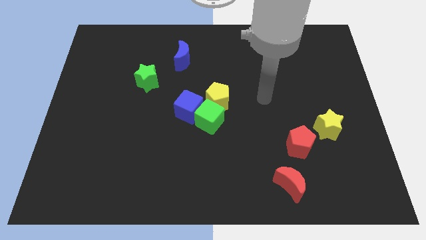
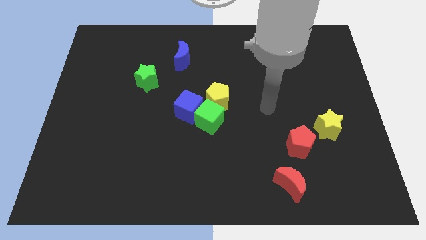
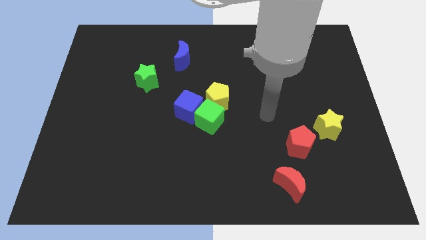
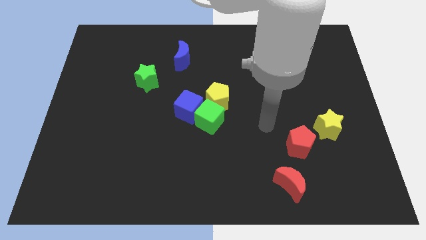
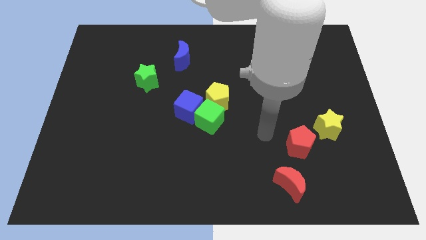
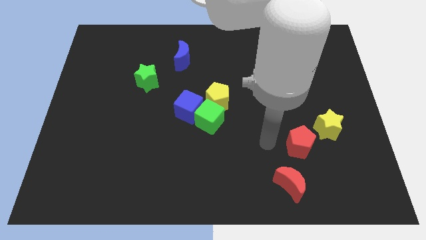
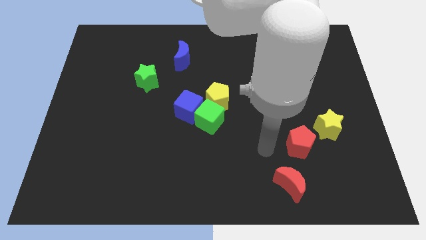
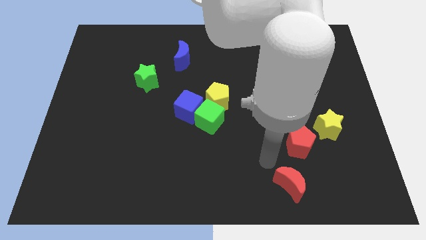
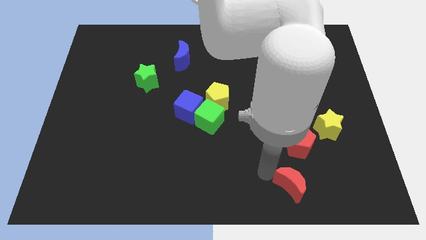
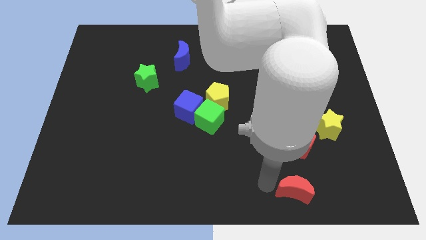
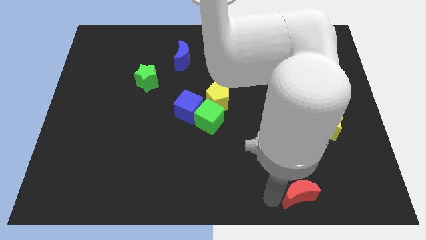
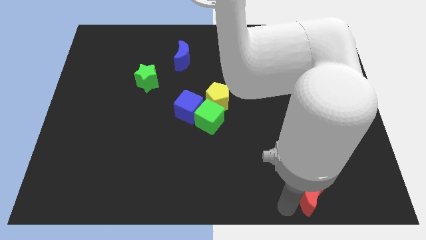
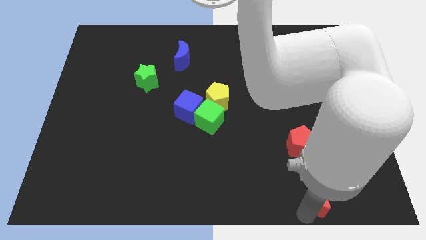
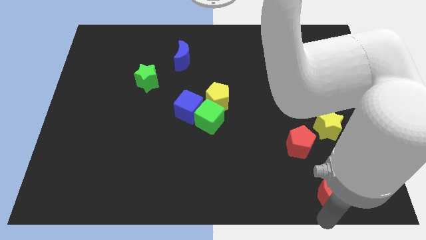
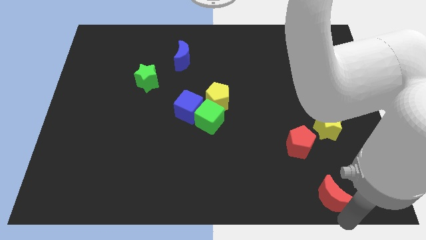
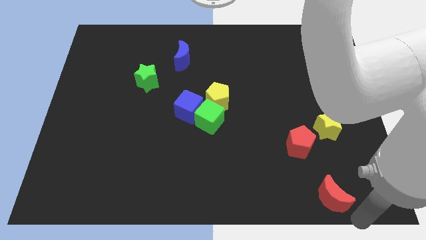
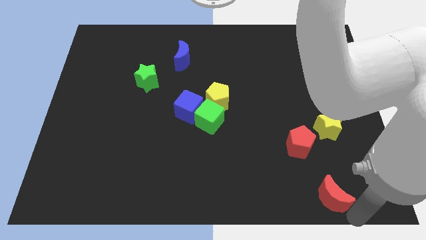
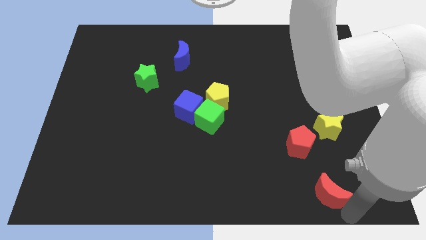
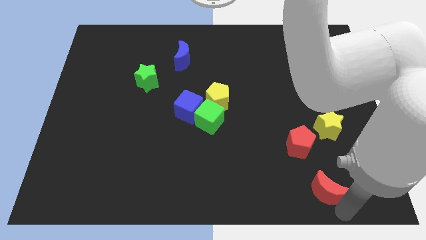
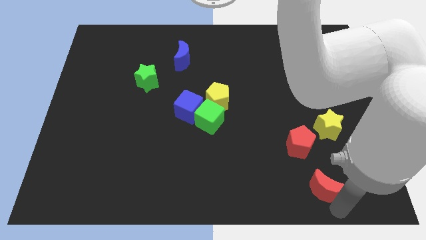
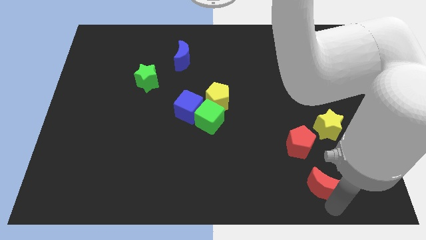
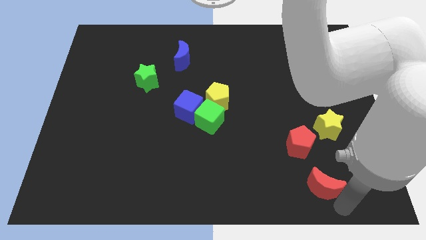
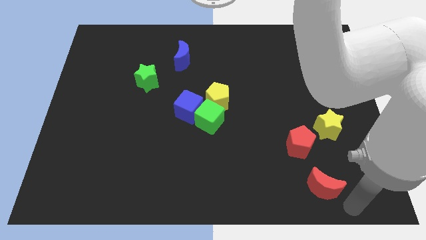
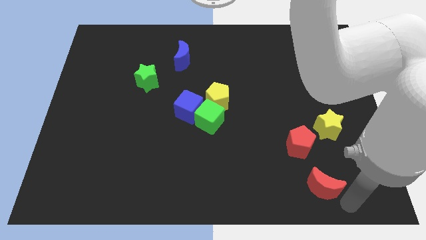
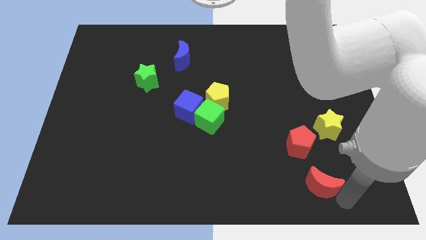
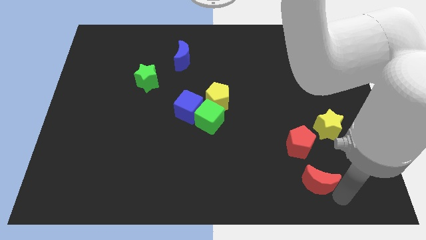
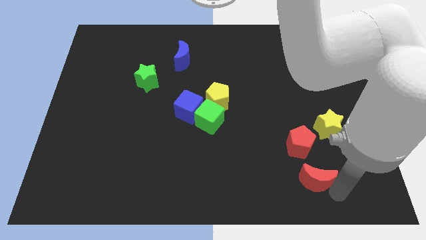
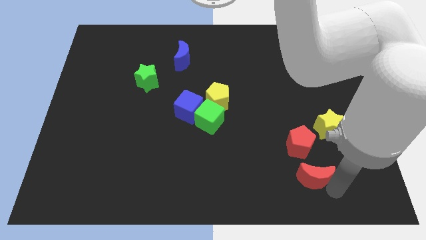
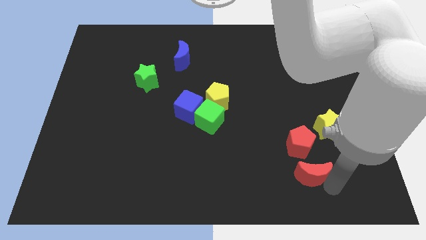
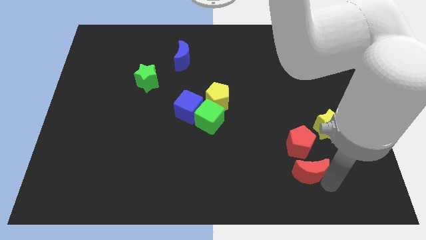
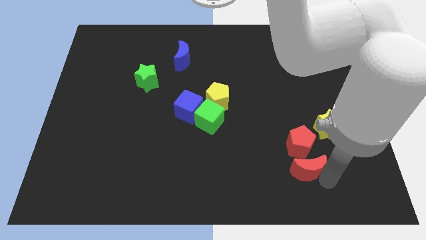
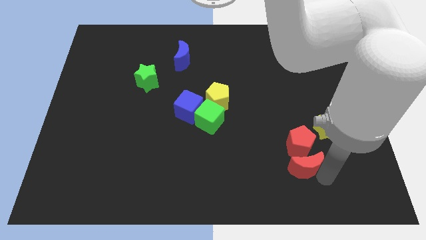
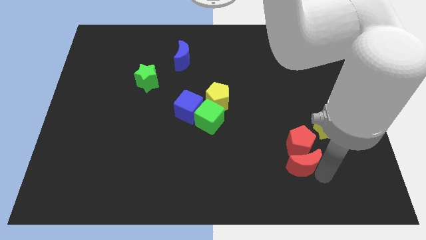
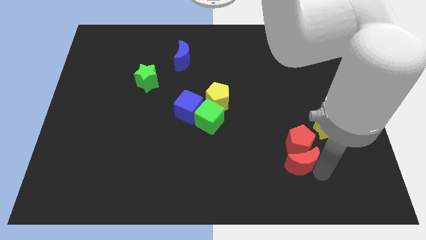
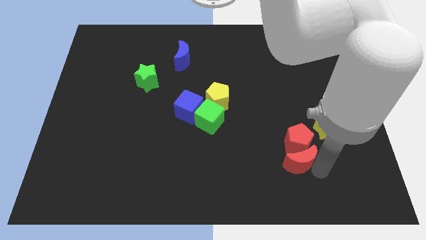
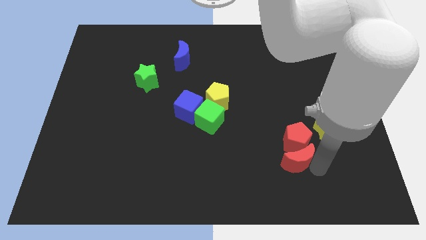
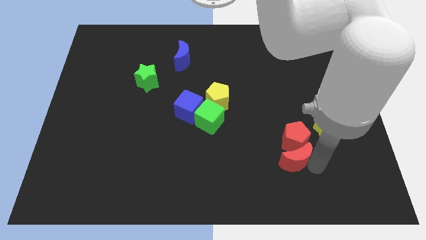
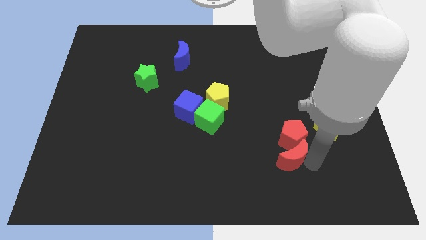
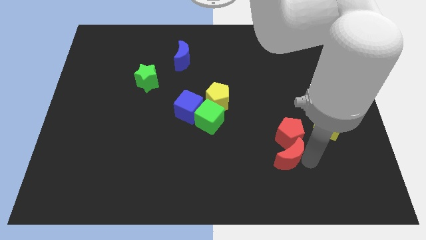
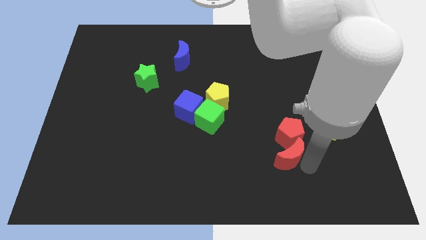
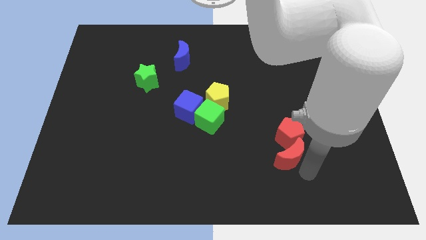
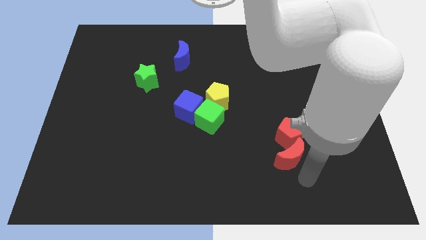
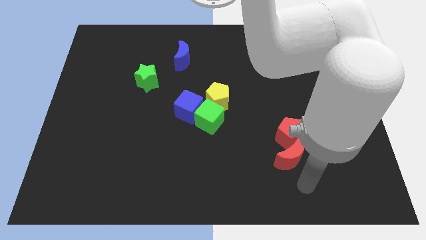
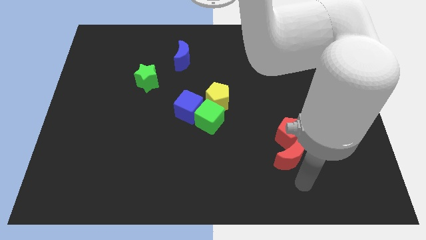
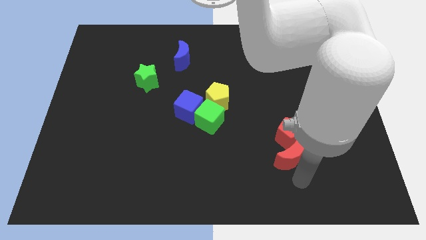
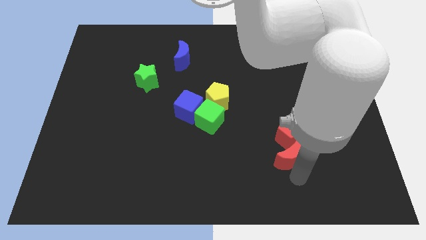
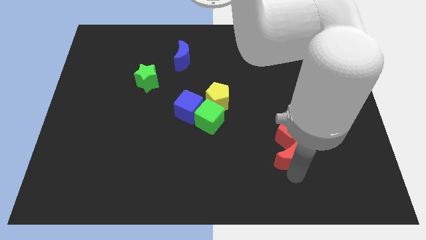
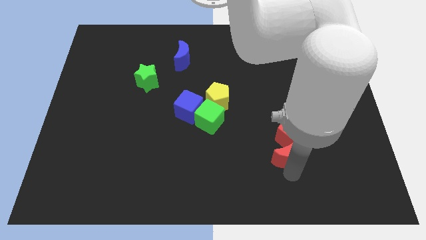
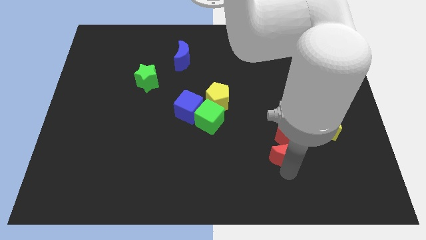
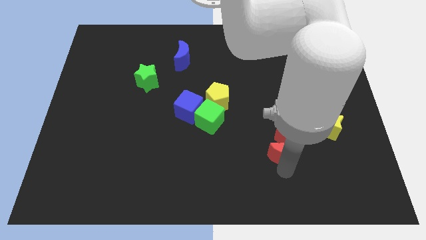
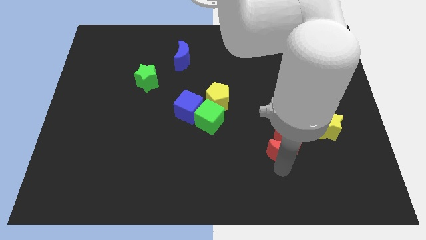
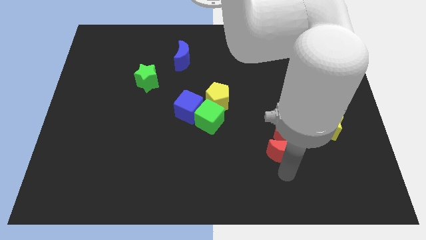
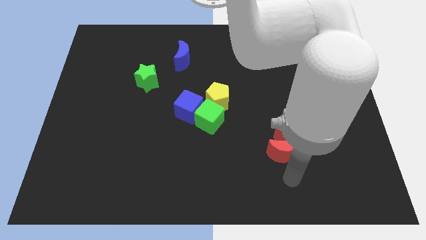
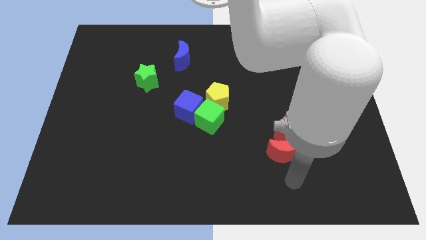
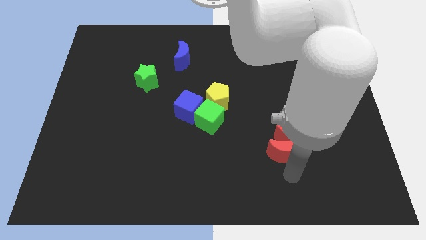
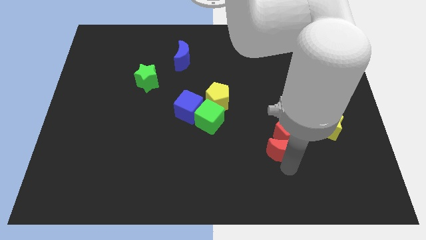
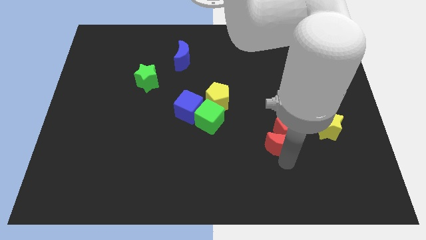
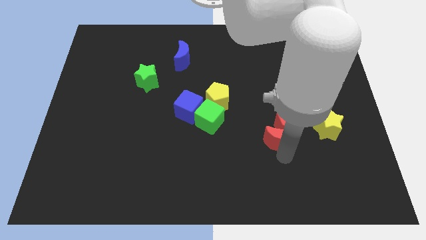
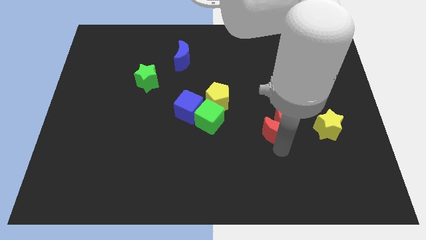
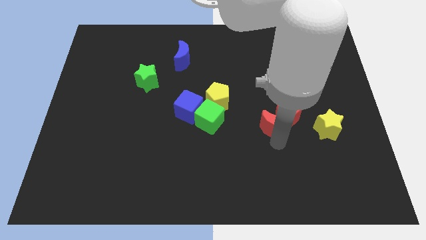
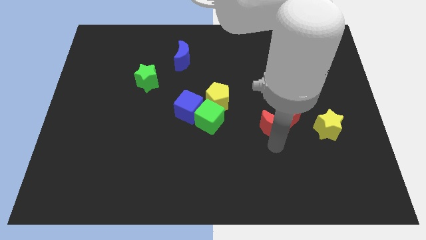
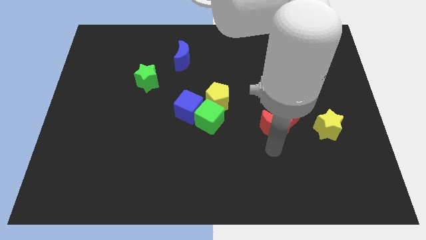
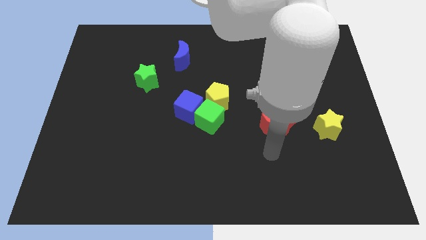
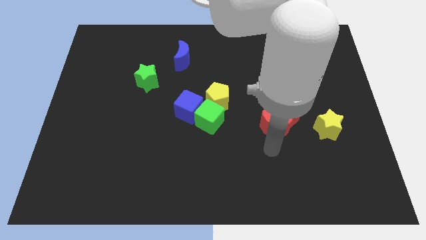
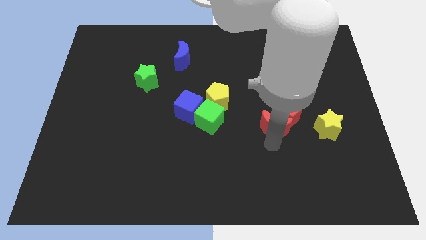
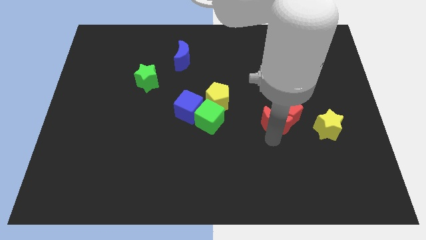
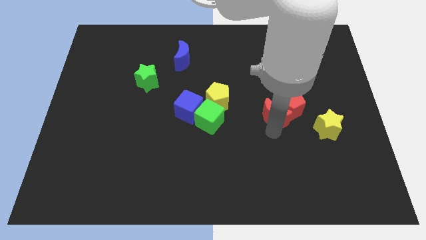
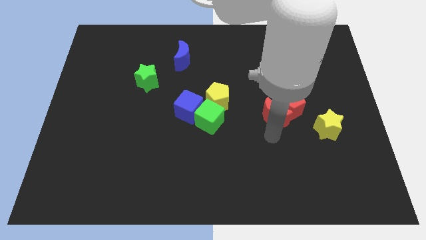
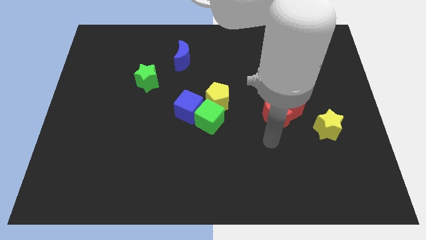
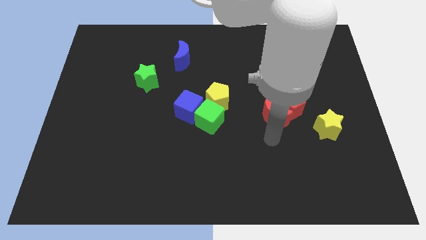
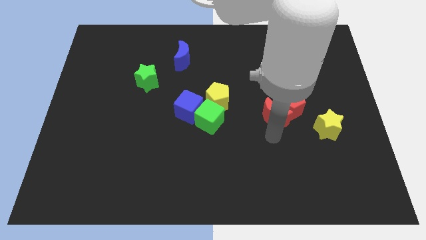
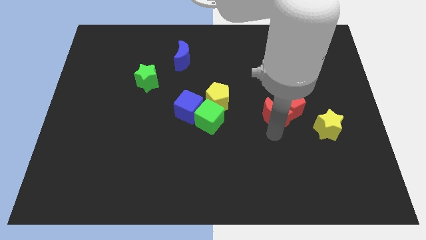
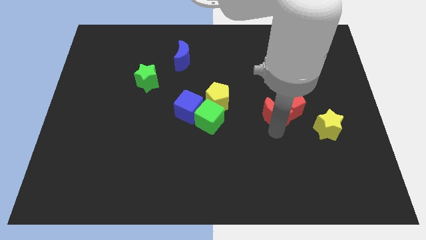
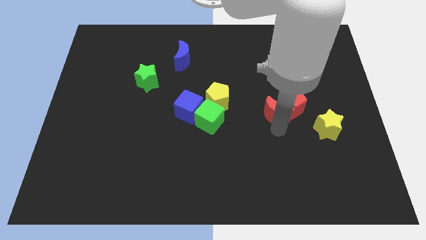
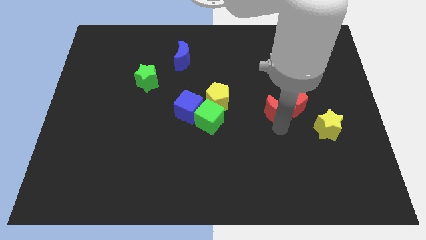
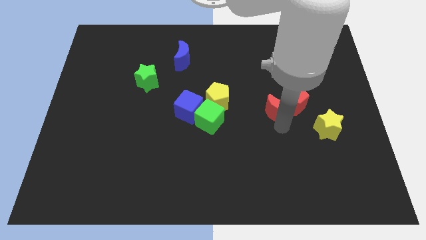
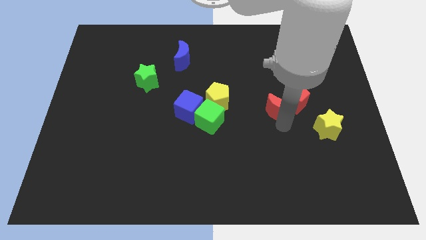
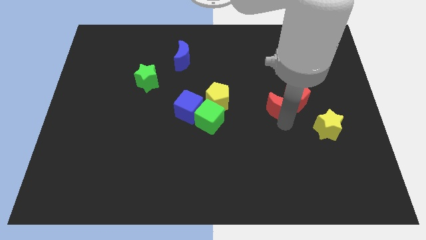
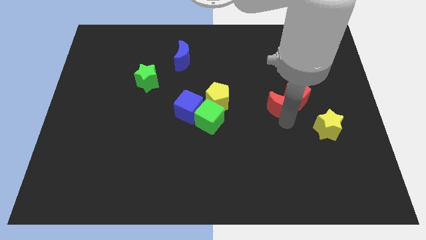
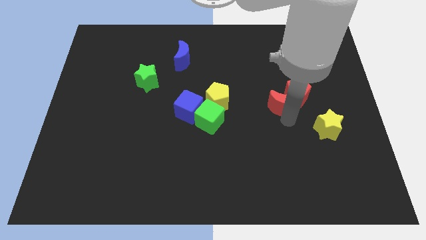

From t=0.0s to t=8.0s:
push the red moon upwards
